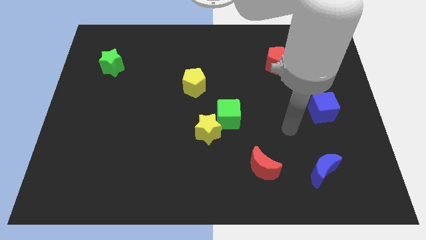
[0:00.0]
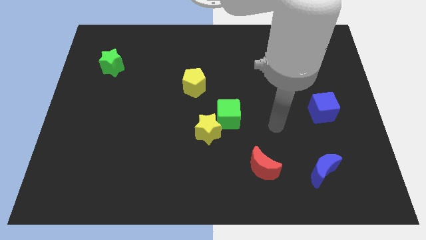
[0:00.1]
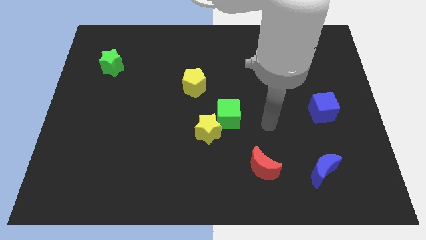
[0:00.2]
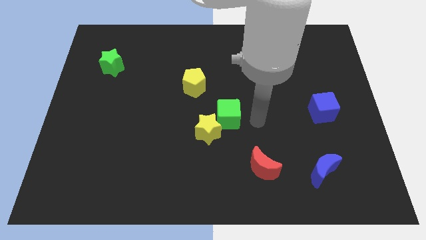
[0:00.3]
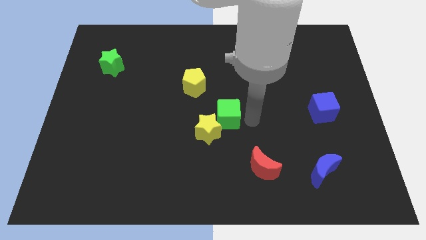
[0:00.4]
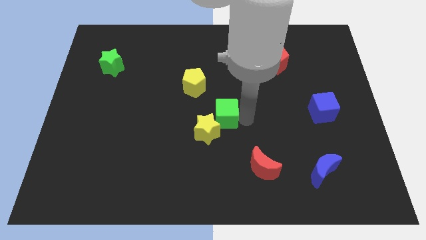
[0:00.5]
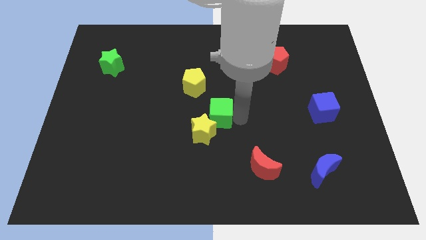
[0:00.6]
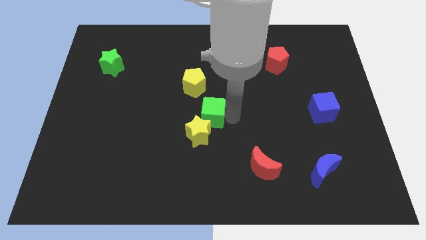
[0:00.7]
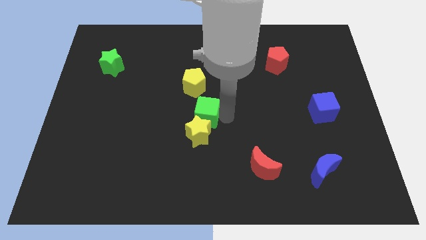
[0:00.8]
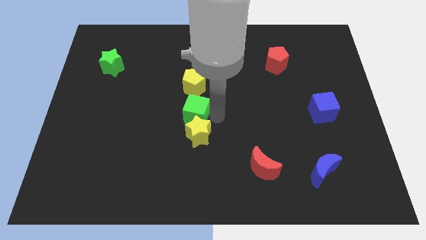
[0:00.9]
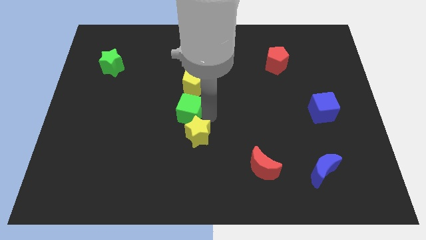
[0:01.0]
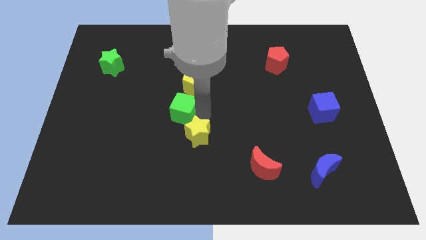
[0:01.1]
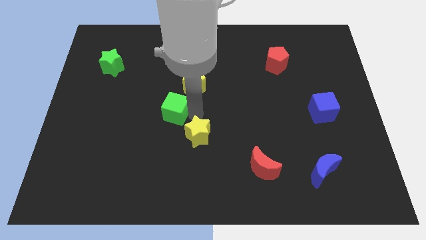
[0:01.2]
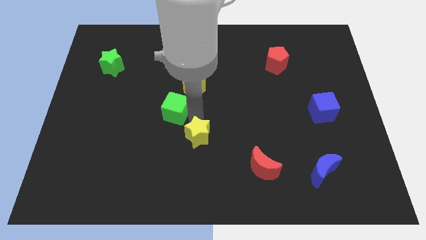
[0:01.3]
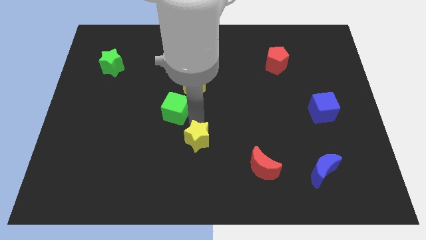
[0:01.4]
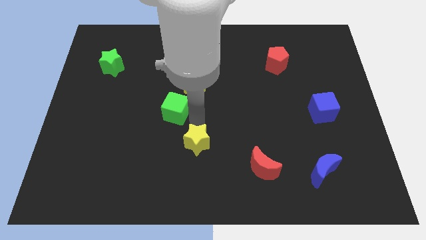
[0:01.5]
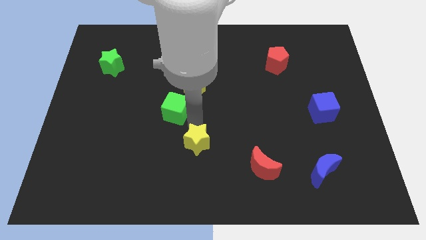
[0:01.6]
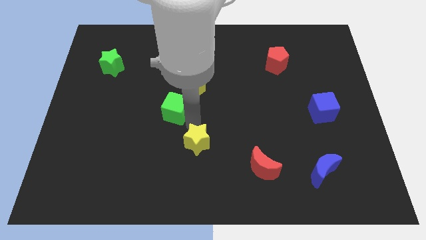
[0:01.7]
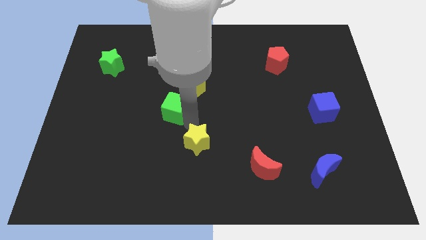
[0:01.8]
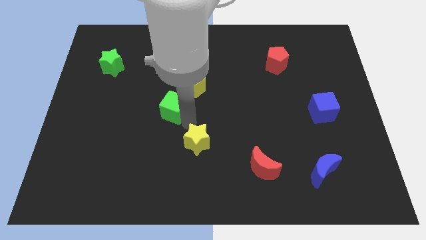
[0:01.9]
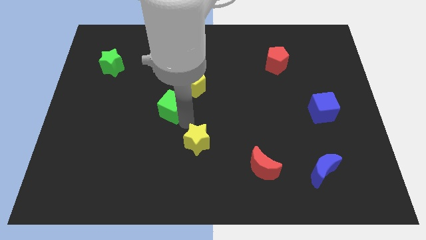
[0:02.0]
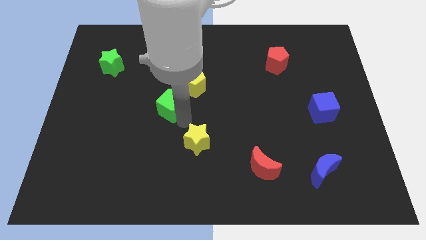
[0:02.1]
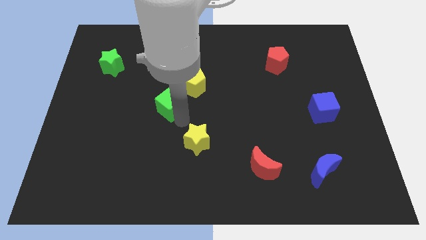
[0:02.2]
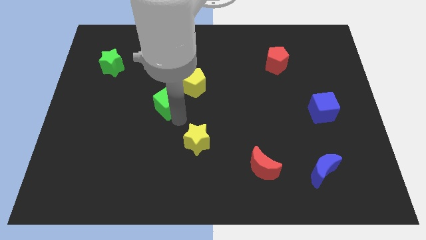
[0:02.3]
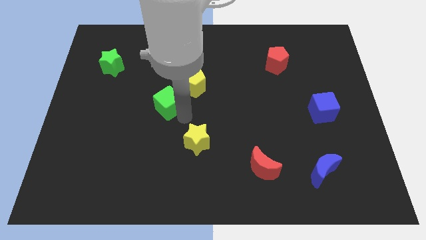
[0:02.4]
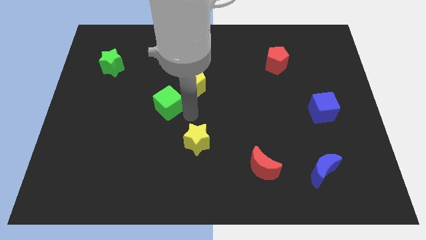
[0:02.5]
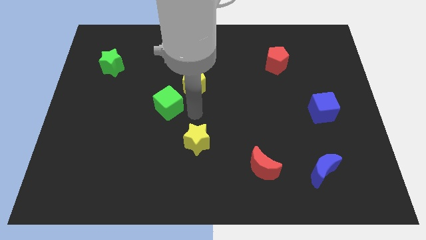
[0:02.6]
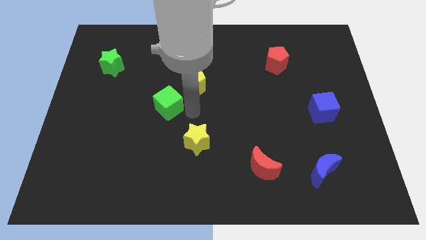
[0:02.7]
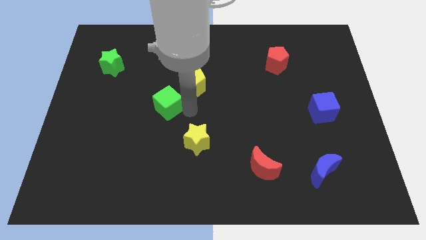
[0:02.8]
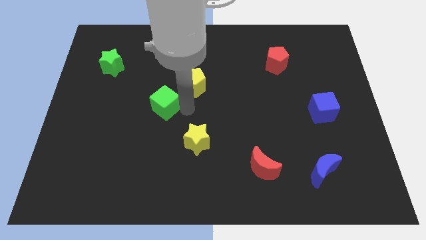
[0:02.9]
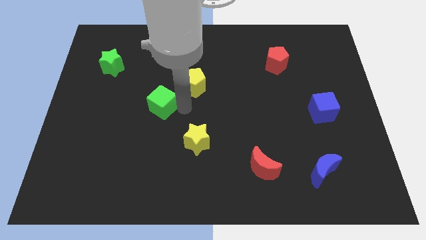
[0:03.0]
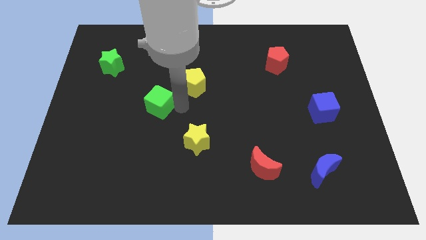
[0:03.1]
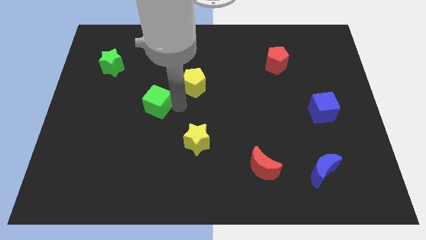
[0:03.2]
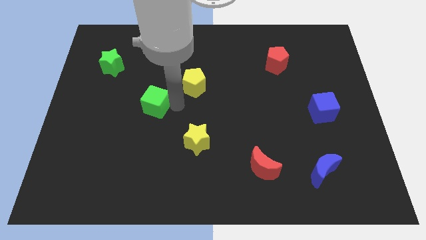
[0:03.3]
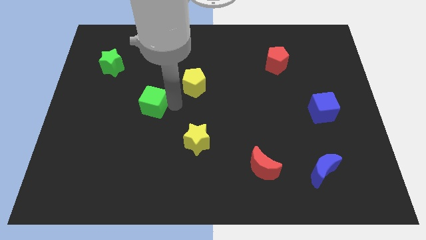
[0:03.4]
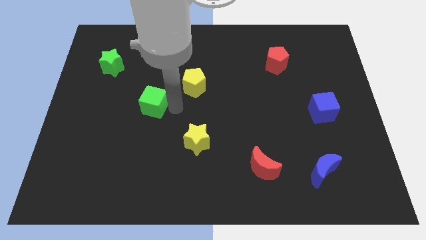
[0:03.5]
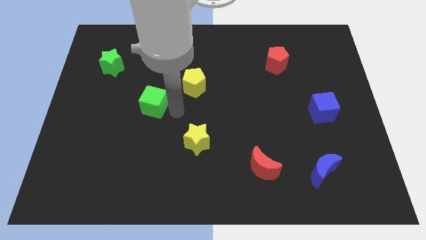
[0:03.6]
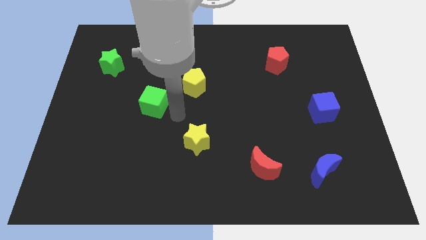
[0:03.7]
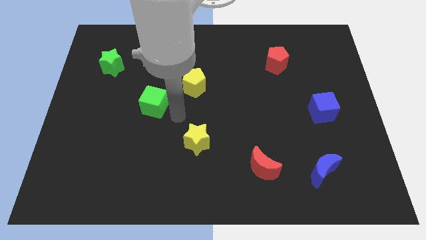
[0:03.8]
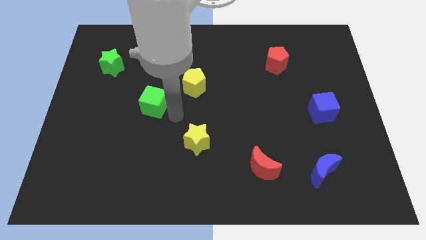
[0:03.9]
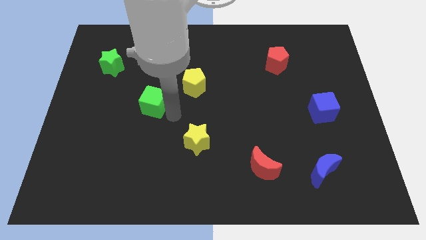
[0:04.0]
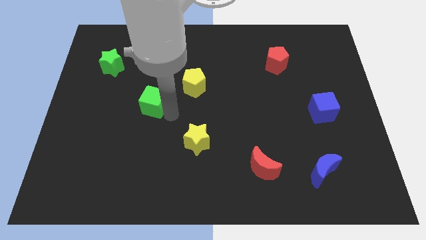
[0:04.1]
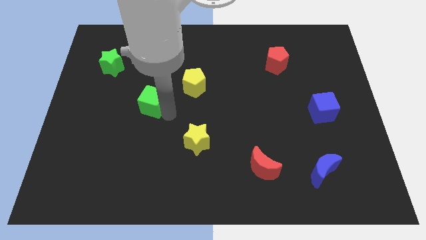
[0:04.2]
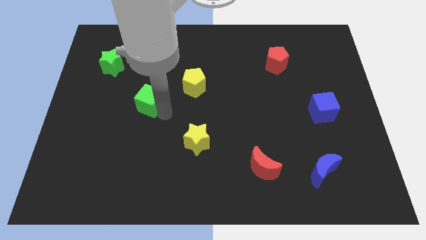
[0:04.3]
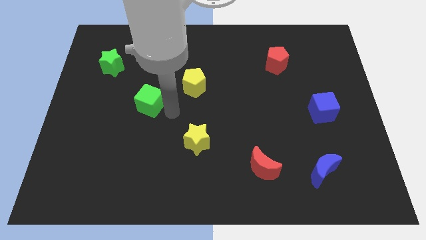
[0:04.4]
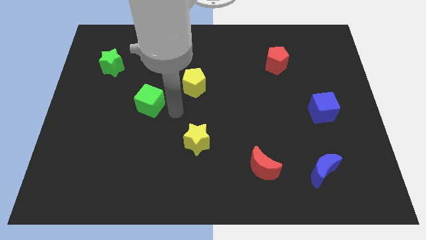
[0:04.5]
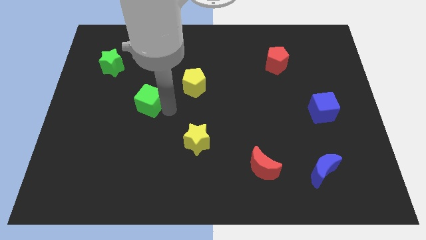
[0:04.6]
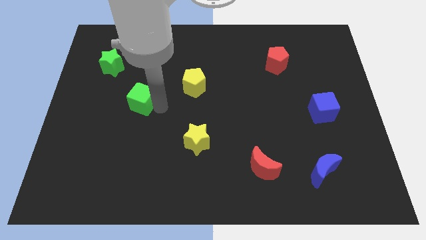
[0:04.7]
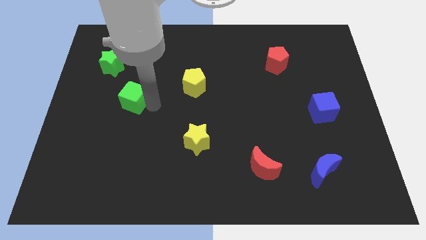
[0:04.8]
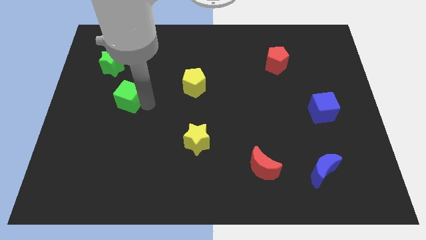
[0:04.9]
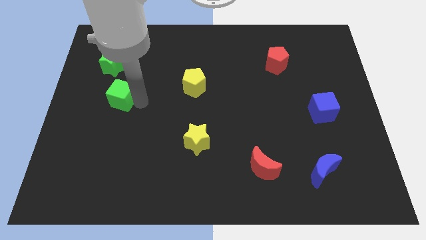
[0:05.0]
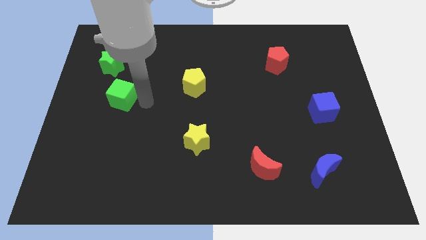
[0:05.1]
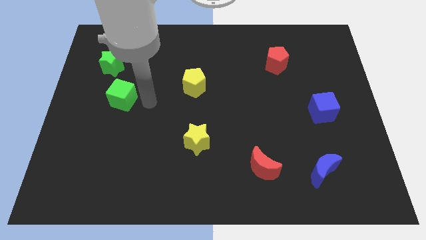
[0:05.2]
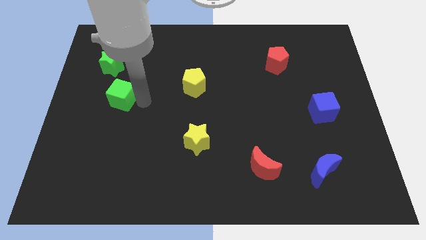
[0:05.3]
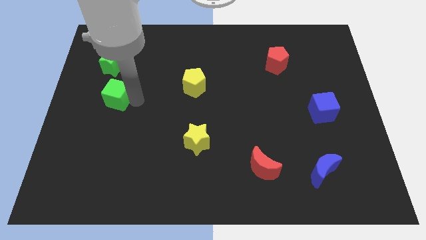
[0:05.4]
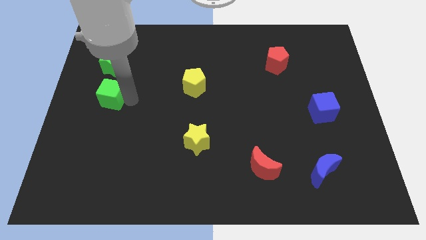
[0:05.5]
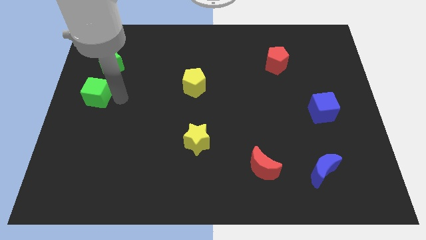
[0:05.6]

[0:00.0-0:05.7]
slide the green cube to the left side of the board
